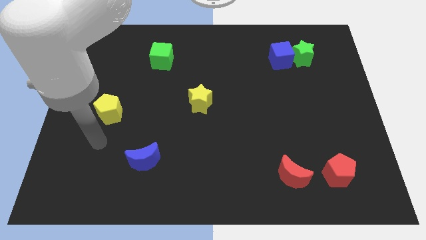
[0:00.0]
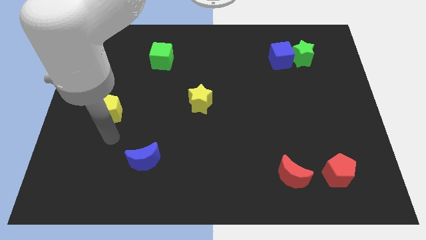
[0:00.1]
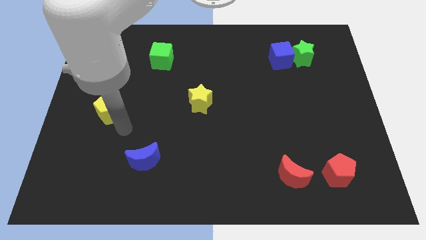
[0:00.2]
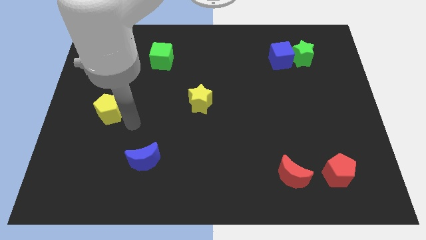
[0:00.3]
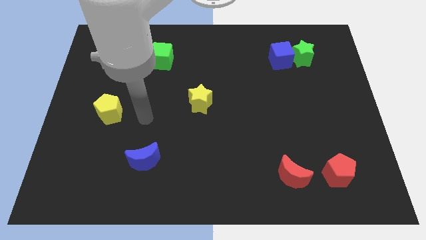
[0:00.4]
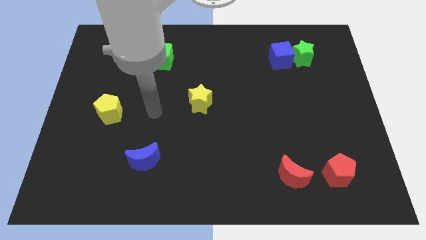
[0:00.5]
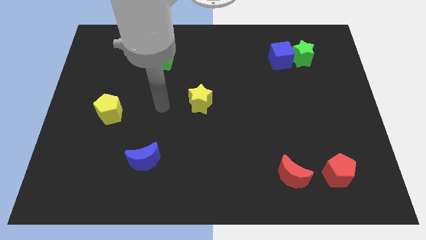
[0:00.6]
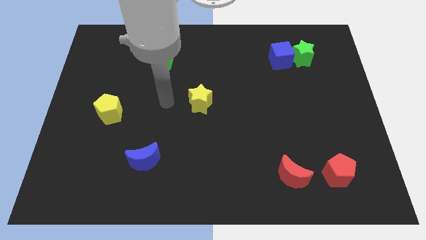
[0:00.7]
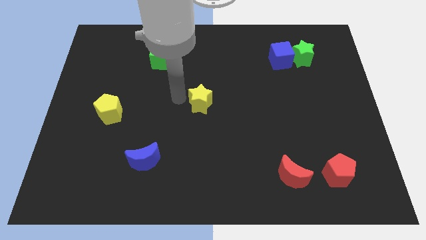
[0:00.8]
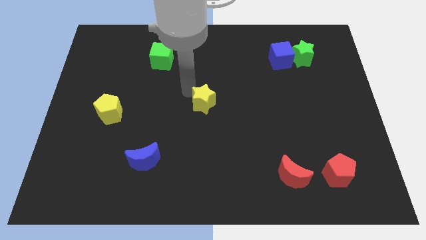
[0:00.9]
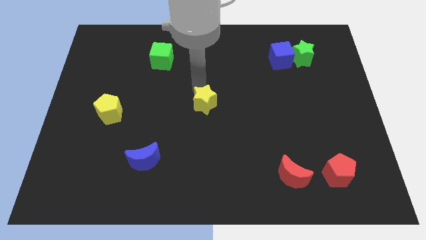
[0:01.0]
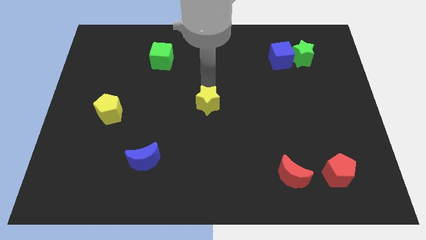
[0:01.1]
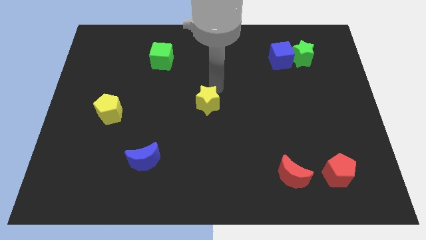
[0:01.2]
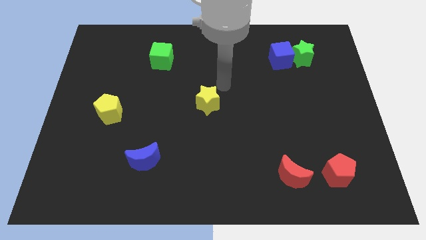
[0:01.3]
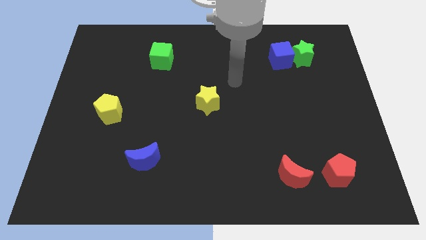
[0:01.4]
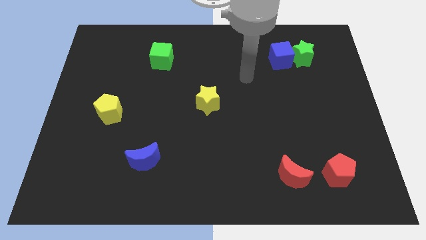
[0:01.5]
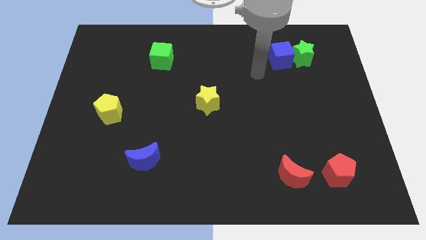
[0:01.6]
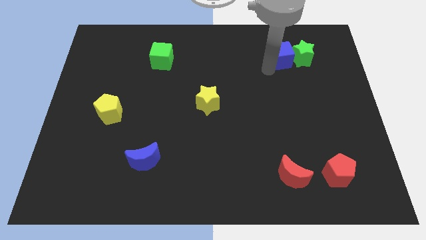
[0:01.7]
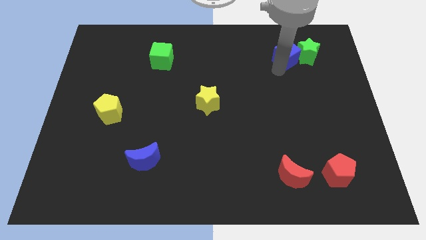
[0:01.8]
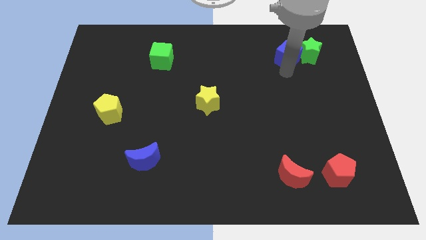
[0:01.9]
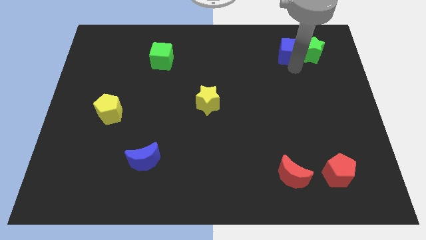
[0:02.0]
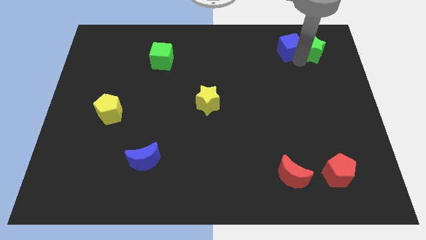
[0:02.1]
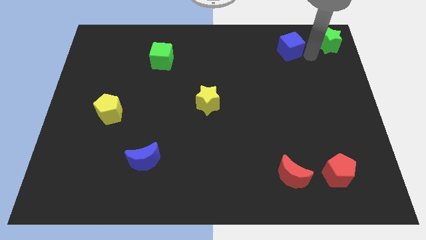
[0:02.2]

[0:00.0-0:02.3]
move the blue cube away from the green star

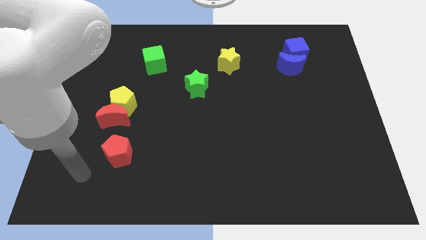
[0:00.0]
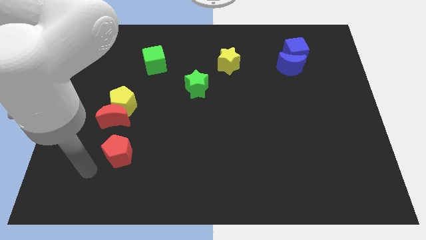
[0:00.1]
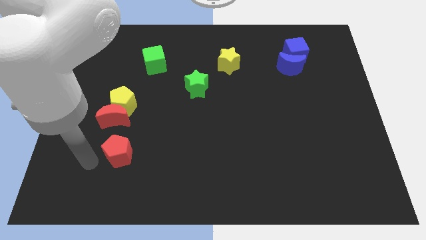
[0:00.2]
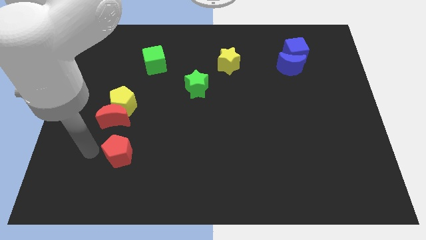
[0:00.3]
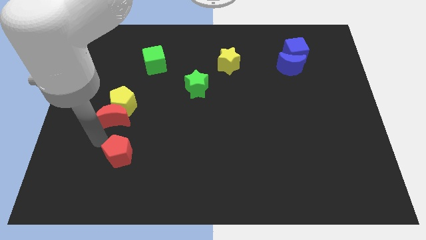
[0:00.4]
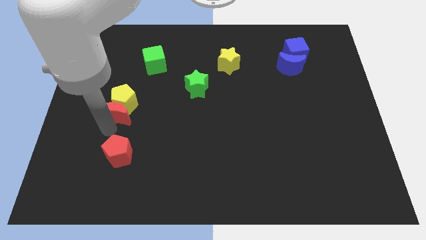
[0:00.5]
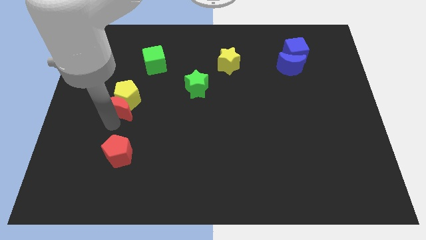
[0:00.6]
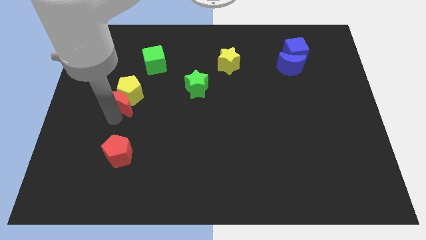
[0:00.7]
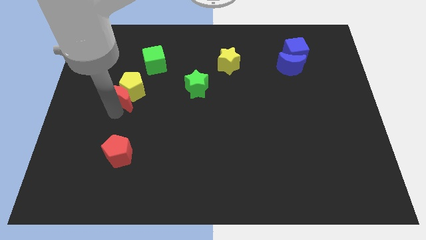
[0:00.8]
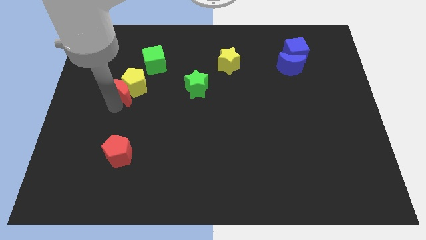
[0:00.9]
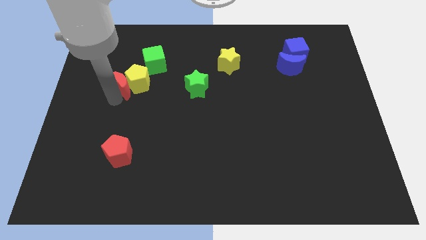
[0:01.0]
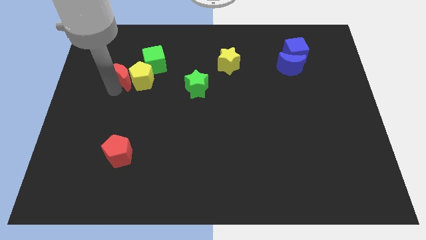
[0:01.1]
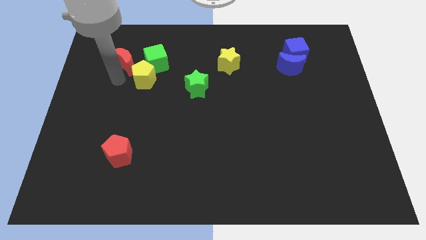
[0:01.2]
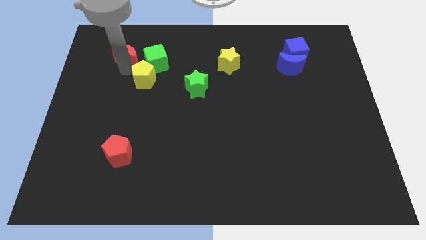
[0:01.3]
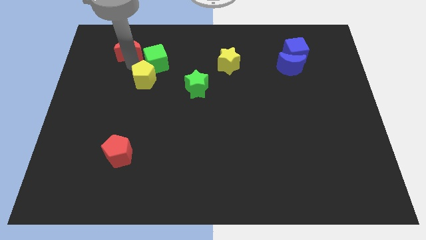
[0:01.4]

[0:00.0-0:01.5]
pull the yellow pentagon apart from the red moon

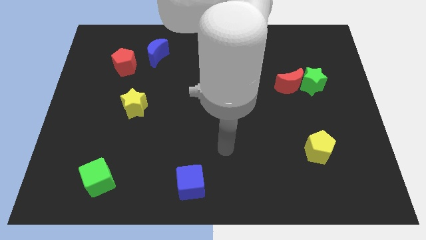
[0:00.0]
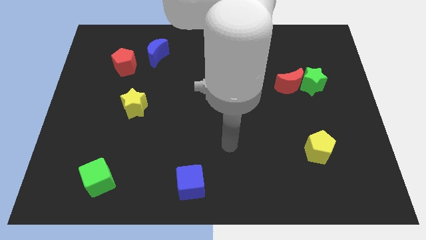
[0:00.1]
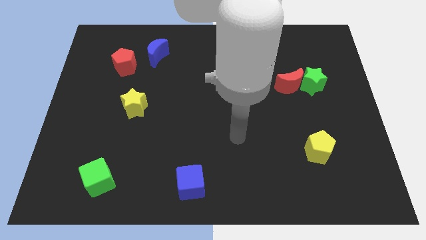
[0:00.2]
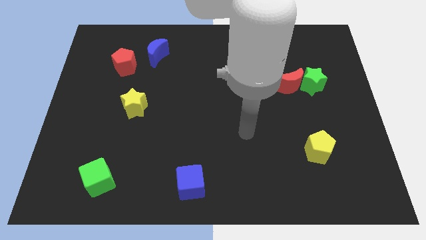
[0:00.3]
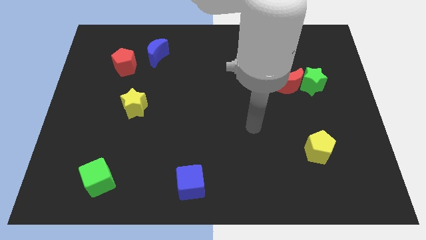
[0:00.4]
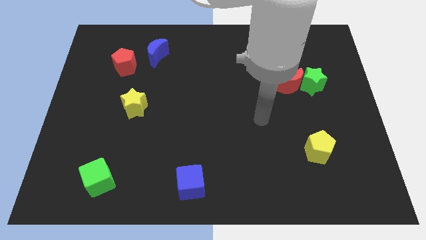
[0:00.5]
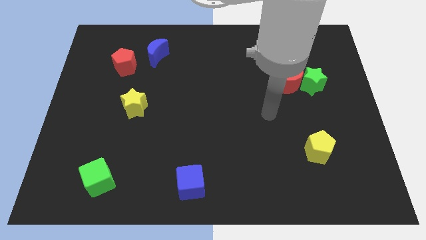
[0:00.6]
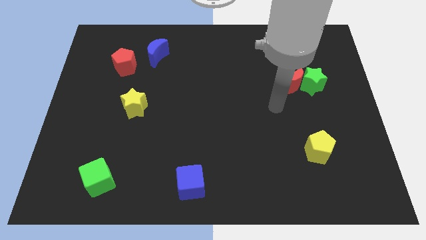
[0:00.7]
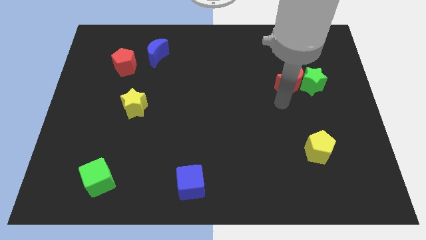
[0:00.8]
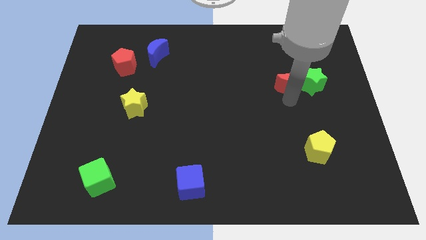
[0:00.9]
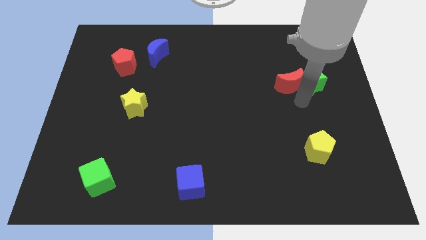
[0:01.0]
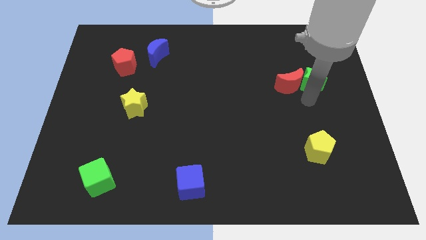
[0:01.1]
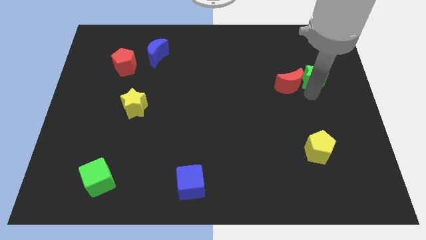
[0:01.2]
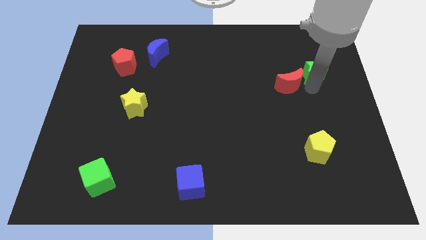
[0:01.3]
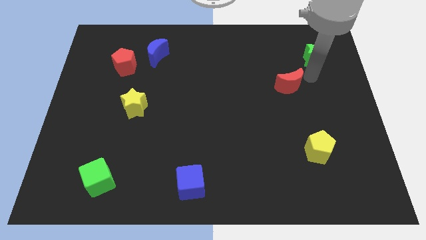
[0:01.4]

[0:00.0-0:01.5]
separate the red moon from the green star

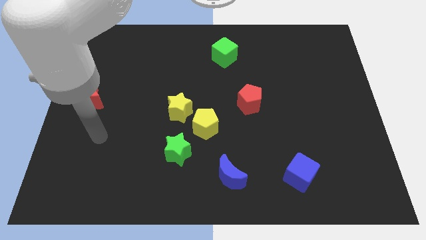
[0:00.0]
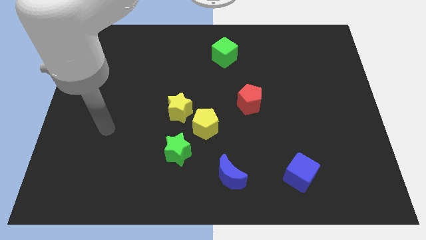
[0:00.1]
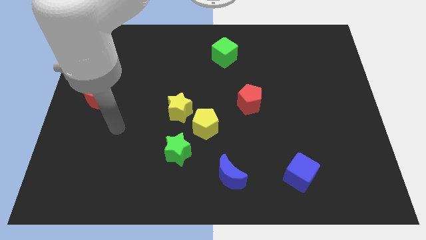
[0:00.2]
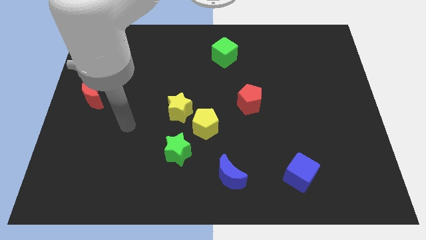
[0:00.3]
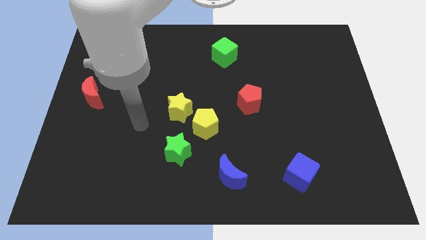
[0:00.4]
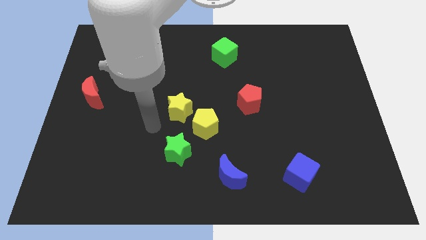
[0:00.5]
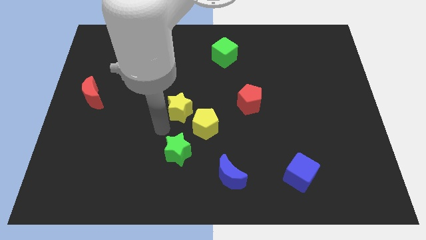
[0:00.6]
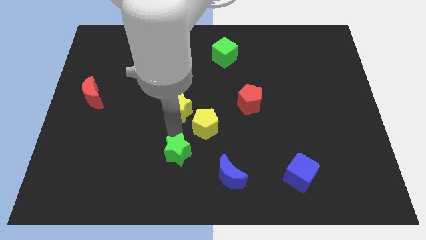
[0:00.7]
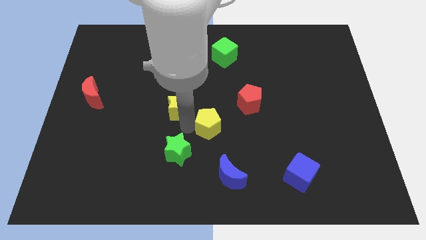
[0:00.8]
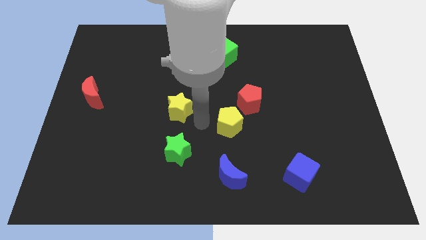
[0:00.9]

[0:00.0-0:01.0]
move the yellow star away from the yellow pentagon

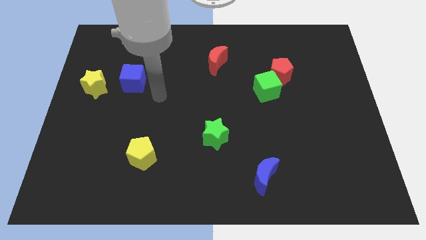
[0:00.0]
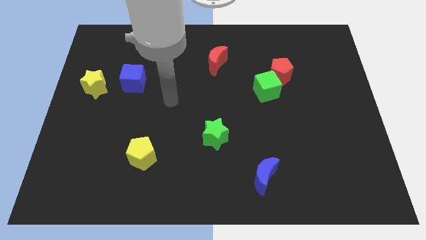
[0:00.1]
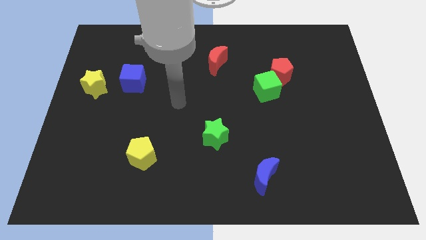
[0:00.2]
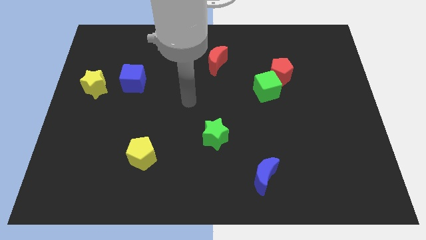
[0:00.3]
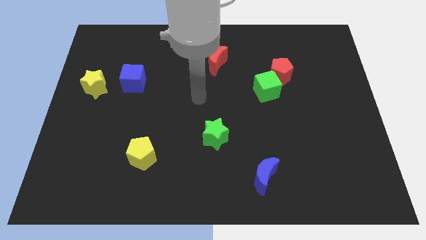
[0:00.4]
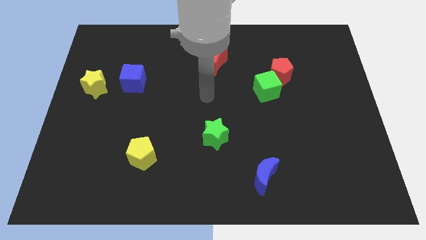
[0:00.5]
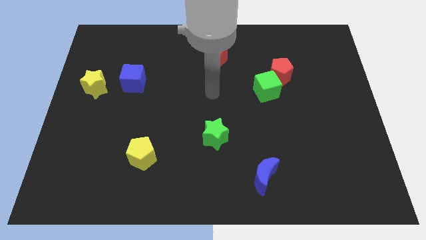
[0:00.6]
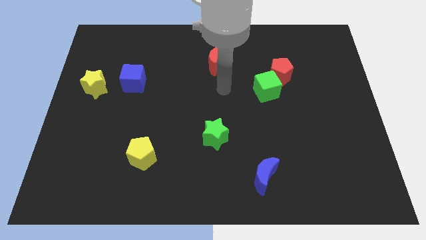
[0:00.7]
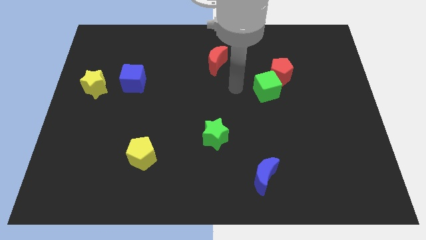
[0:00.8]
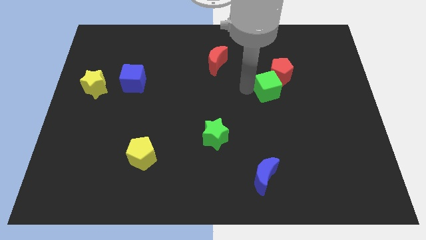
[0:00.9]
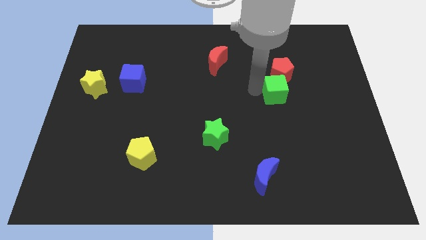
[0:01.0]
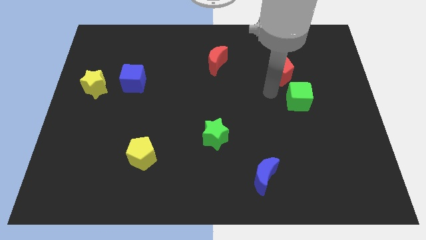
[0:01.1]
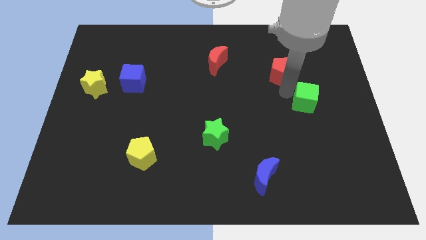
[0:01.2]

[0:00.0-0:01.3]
separate the red pentagon from the green cube

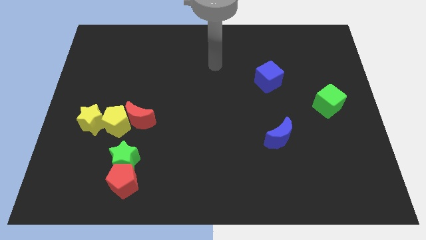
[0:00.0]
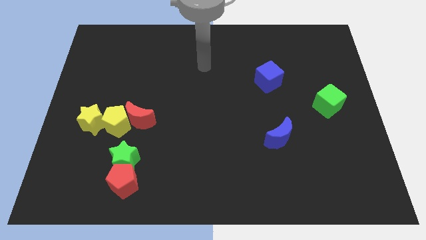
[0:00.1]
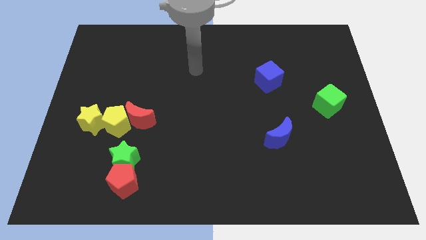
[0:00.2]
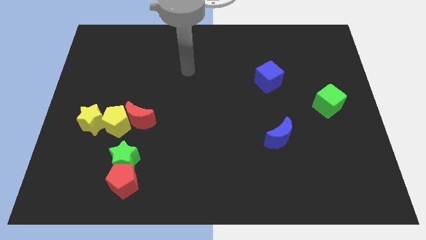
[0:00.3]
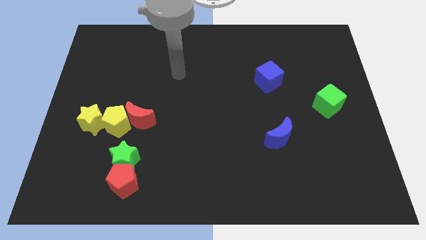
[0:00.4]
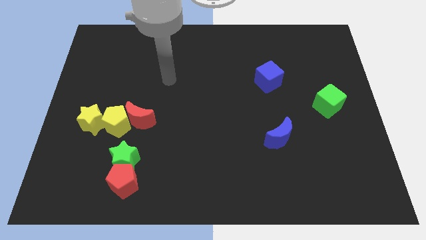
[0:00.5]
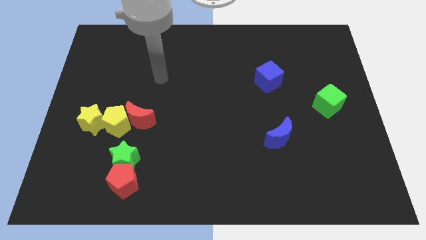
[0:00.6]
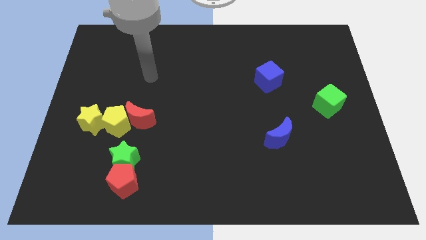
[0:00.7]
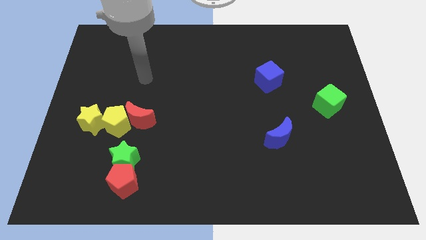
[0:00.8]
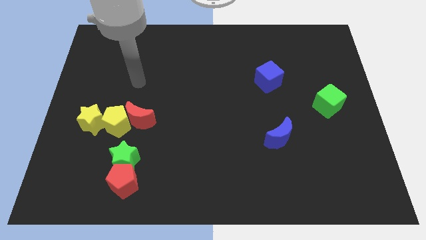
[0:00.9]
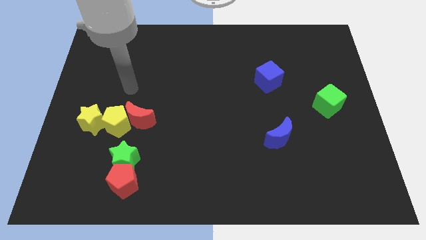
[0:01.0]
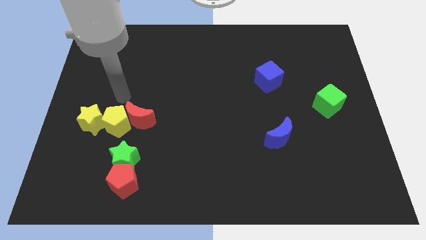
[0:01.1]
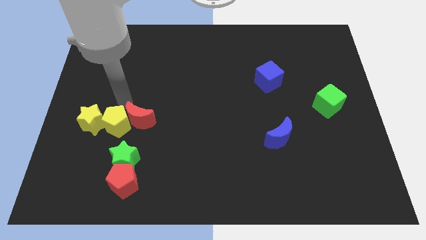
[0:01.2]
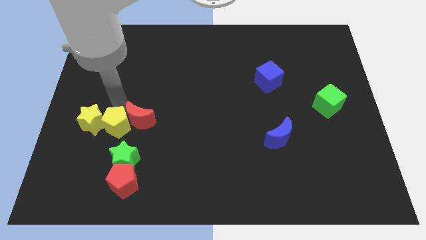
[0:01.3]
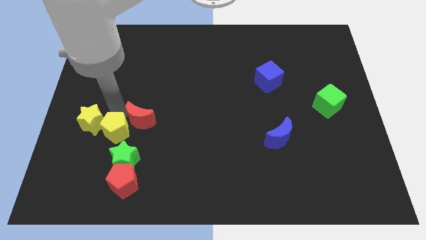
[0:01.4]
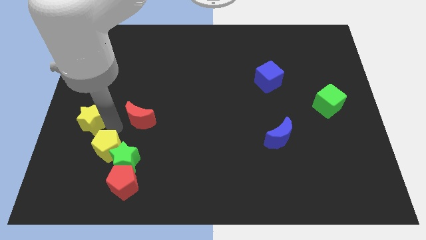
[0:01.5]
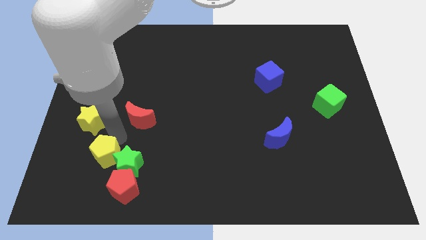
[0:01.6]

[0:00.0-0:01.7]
pull the red moon apart from the yellow pentagon
